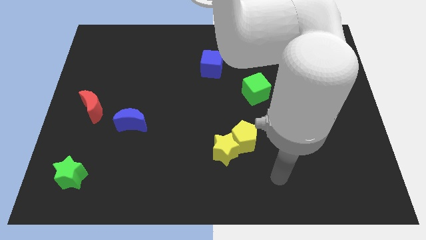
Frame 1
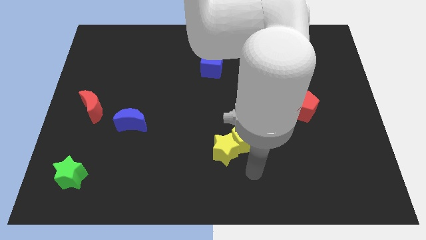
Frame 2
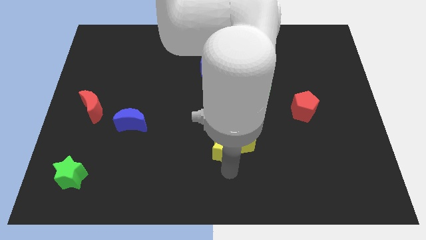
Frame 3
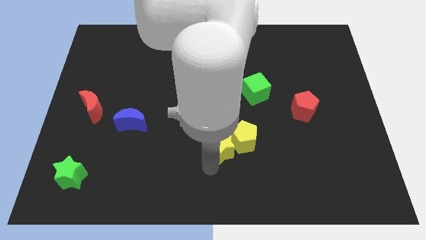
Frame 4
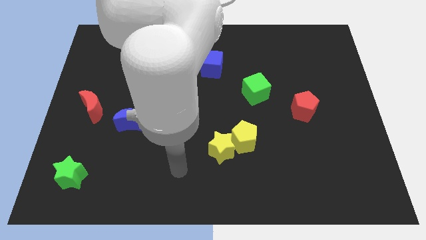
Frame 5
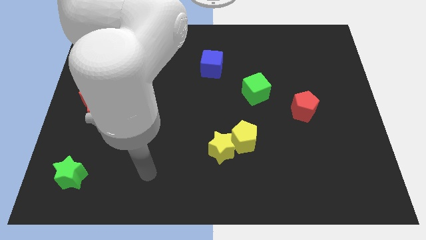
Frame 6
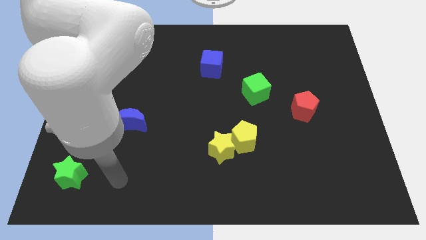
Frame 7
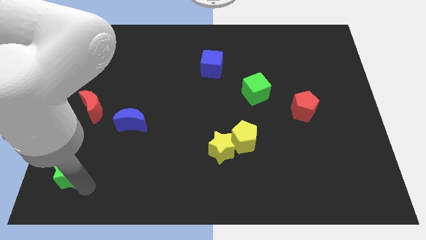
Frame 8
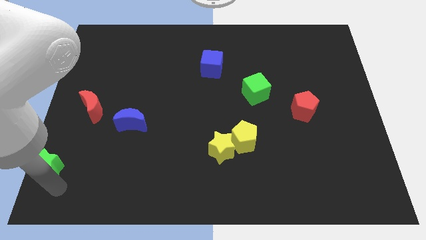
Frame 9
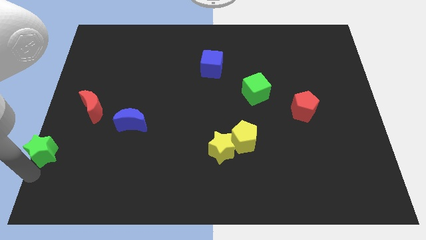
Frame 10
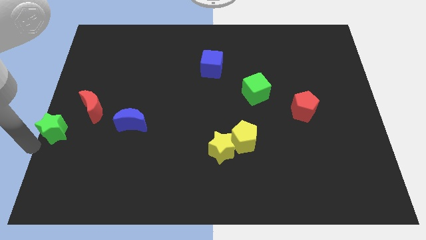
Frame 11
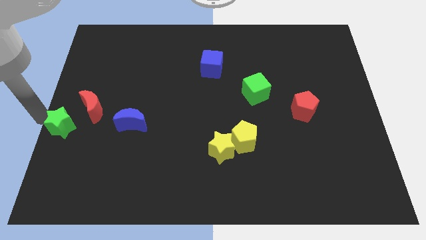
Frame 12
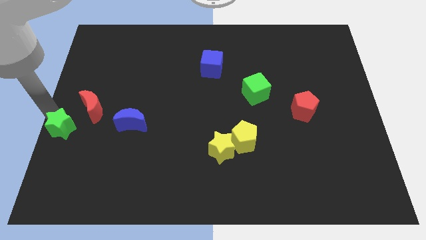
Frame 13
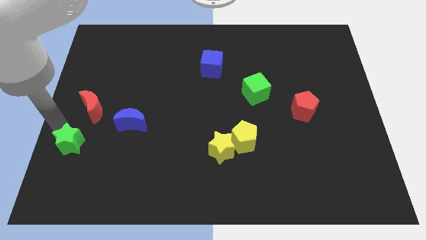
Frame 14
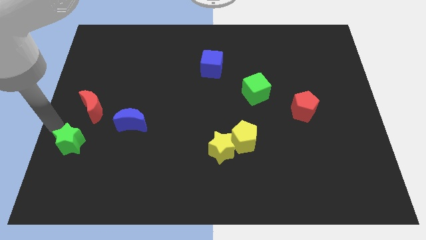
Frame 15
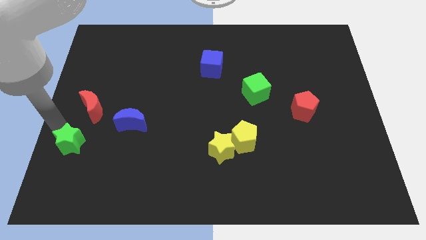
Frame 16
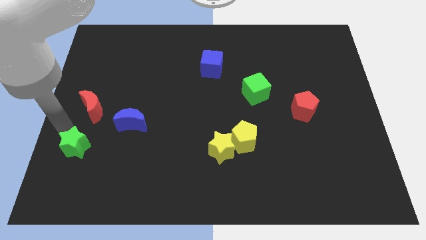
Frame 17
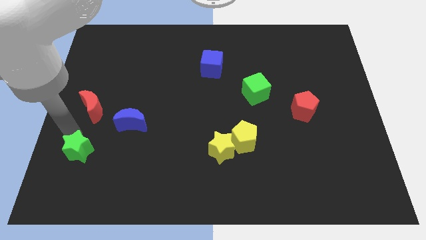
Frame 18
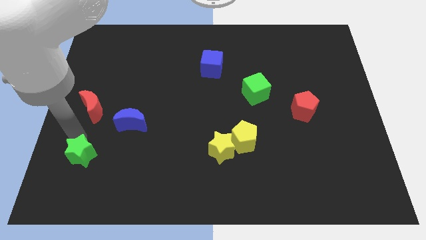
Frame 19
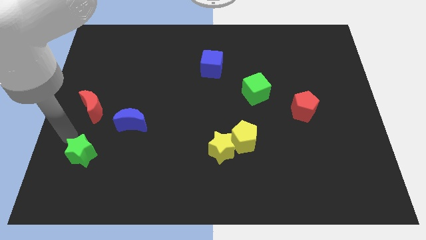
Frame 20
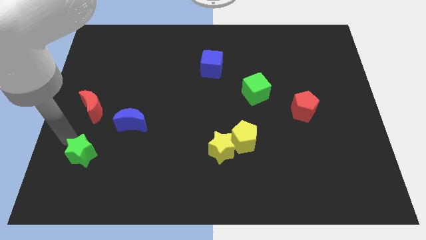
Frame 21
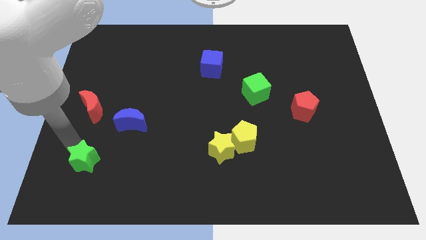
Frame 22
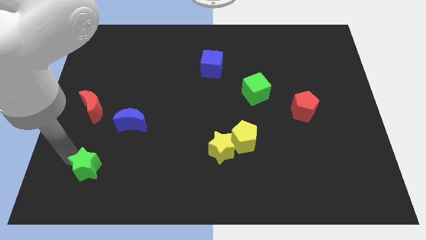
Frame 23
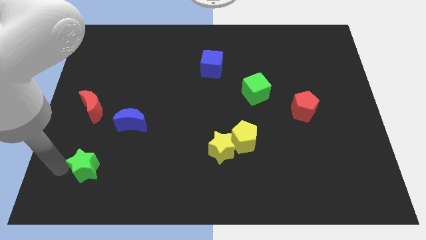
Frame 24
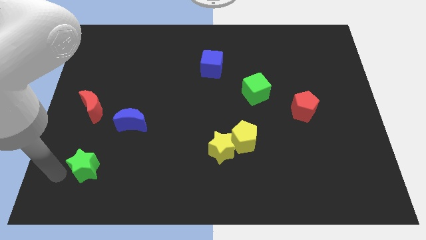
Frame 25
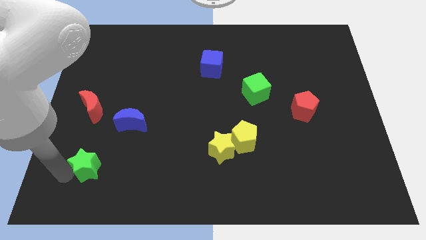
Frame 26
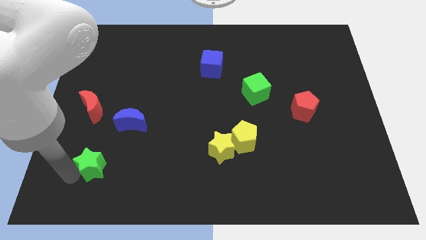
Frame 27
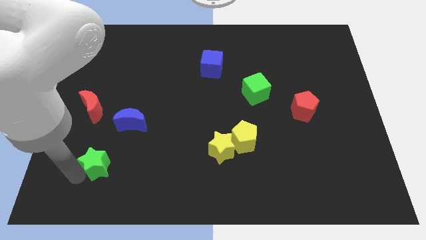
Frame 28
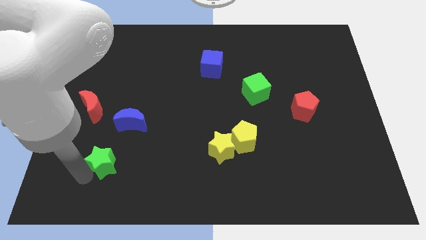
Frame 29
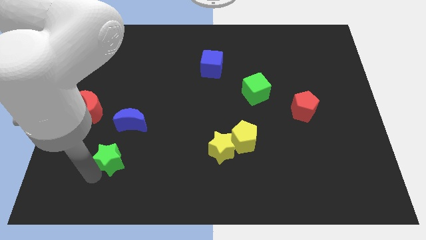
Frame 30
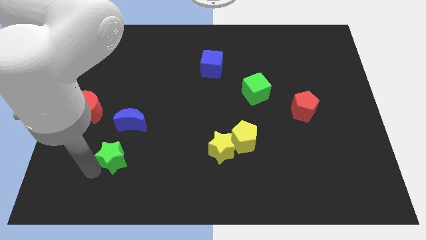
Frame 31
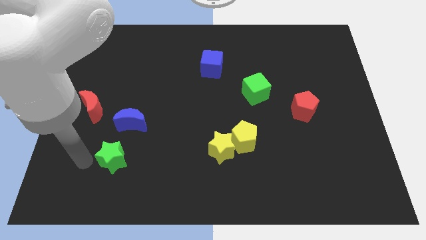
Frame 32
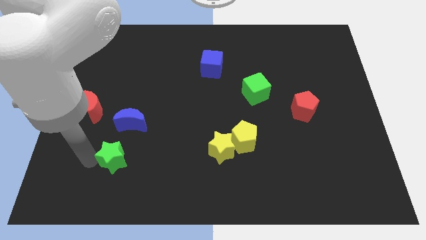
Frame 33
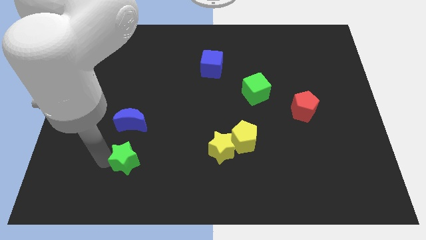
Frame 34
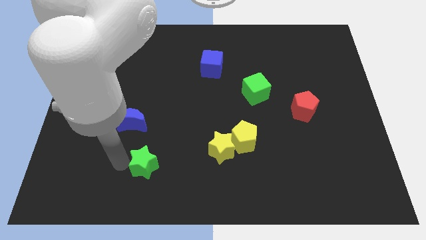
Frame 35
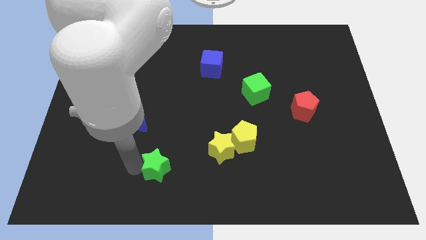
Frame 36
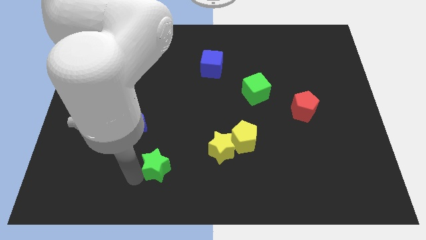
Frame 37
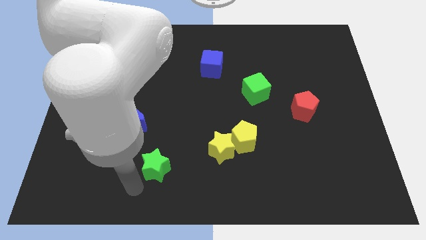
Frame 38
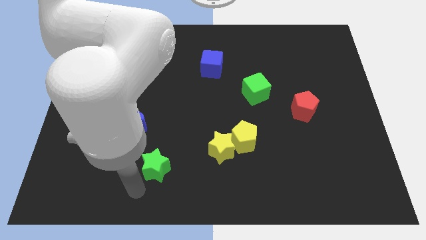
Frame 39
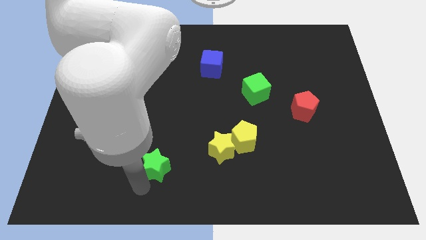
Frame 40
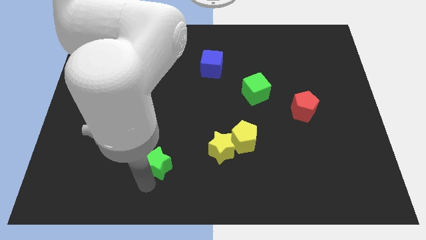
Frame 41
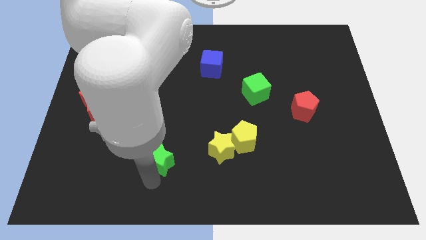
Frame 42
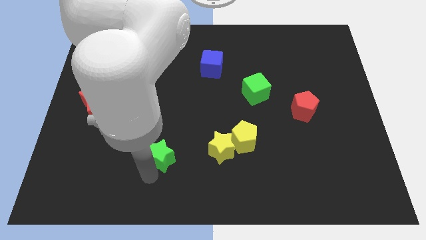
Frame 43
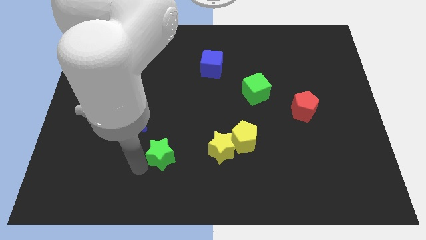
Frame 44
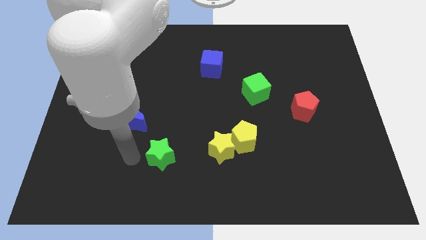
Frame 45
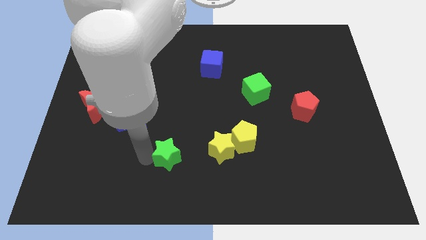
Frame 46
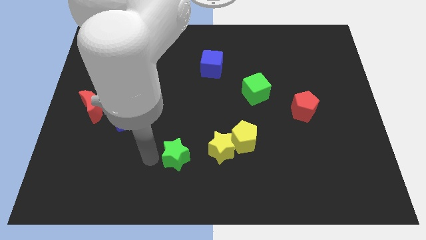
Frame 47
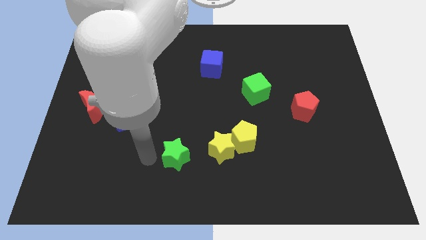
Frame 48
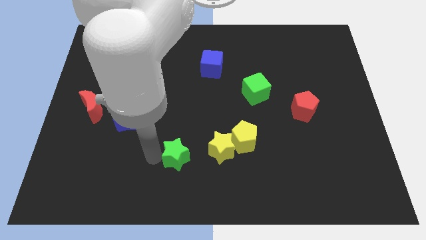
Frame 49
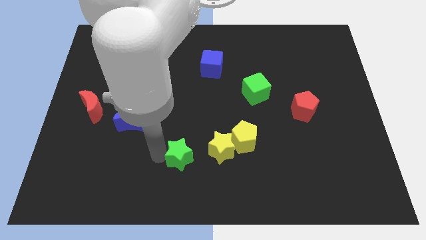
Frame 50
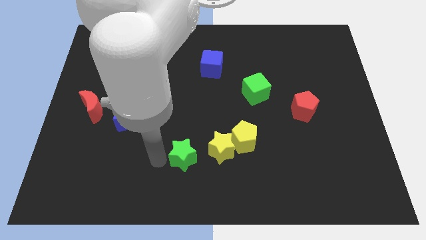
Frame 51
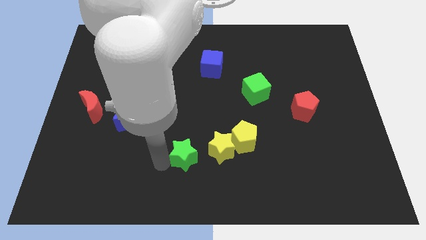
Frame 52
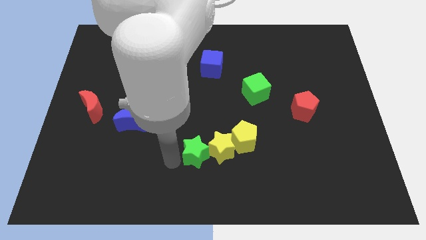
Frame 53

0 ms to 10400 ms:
move the green star close to the yellow star

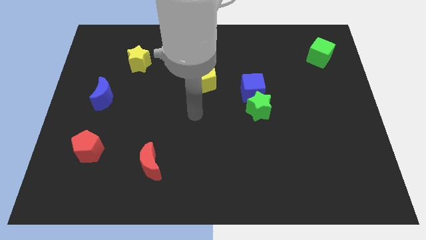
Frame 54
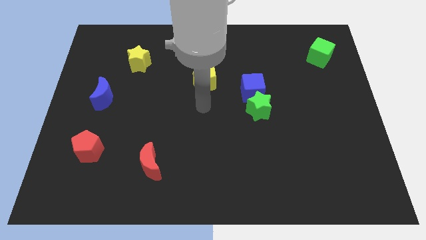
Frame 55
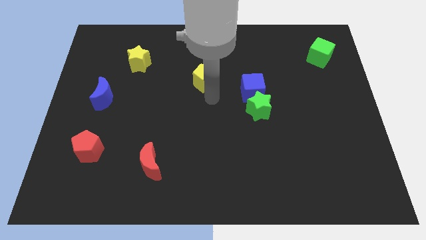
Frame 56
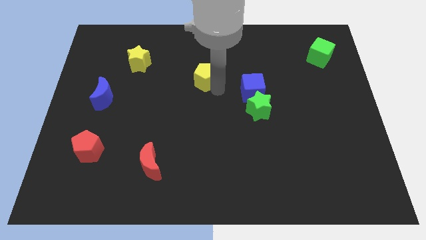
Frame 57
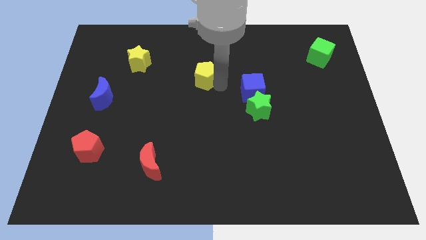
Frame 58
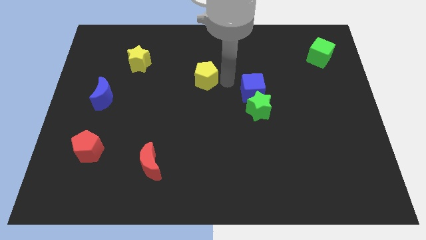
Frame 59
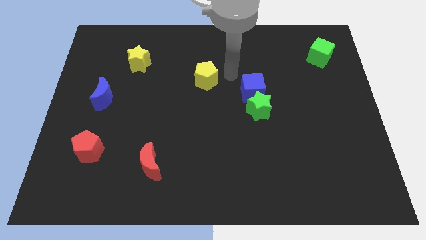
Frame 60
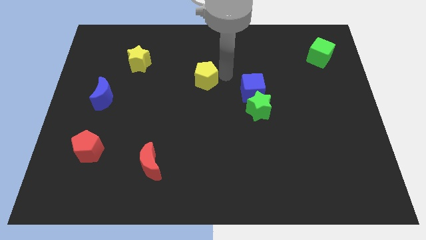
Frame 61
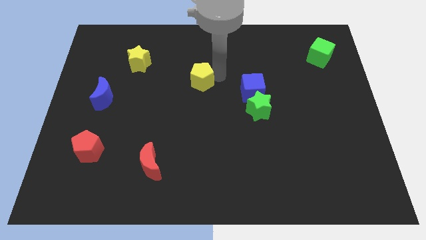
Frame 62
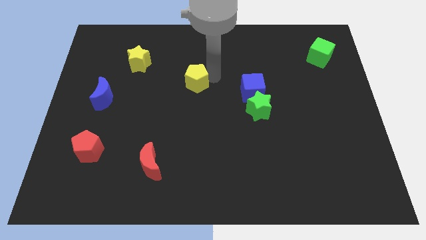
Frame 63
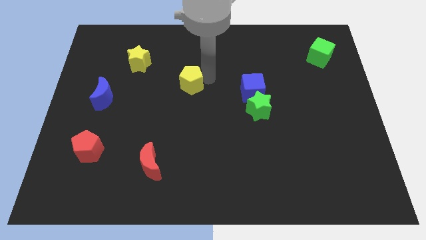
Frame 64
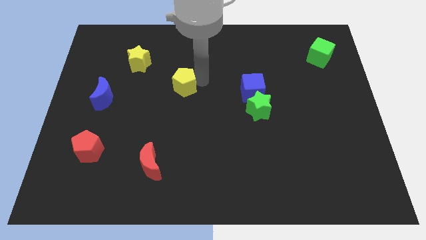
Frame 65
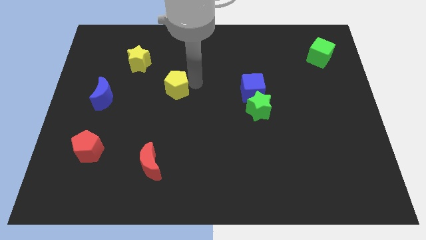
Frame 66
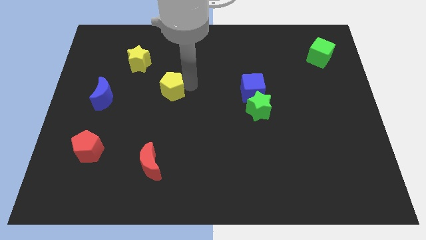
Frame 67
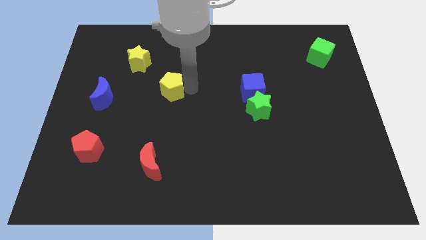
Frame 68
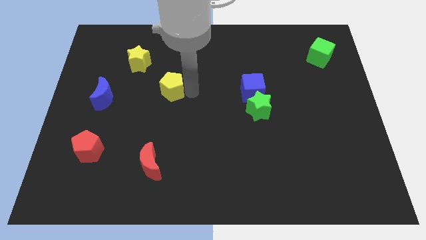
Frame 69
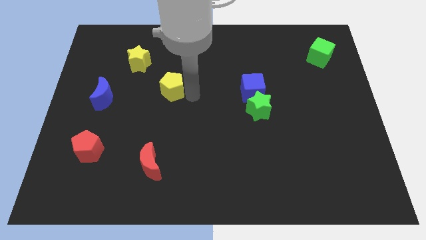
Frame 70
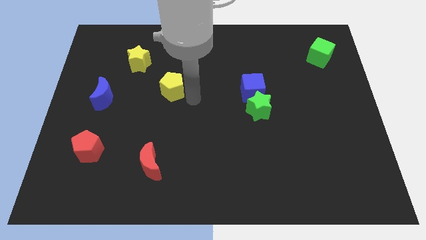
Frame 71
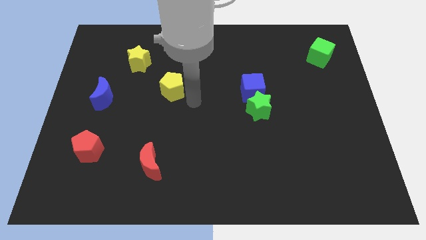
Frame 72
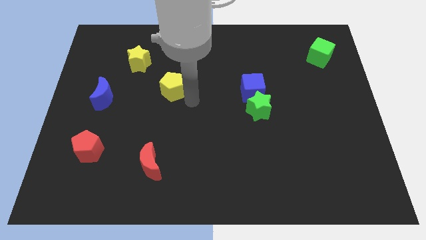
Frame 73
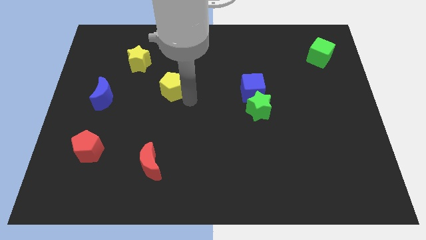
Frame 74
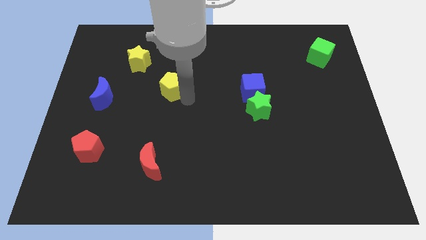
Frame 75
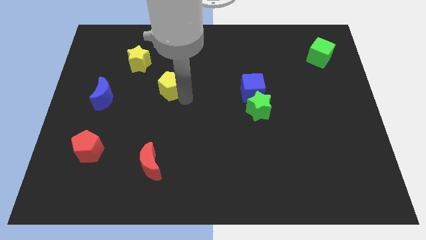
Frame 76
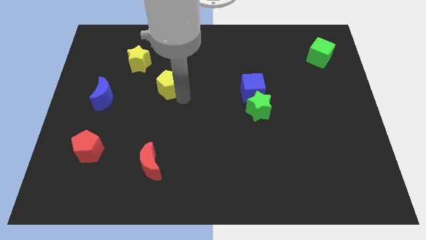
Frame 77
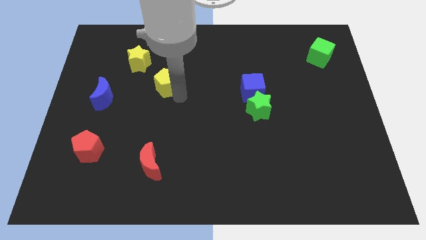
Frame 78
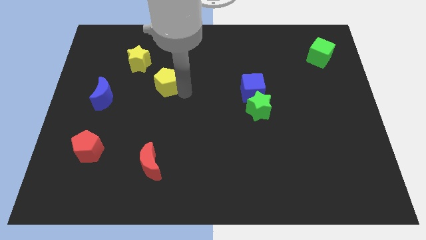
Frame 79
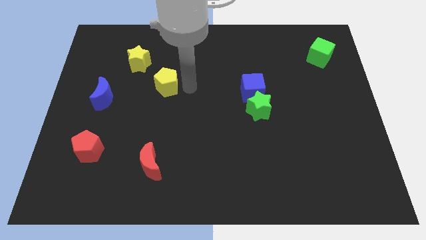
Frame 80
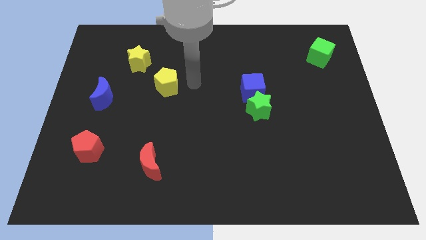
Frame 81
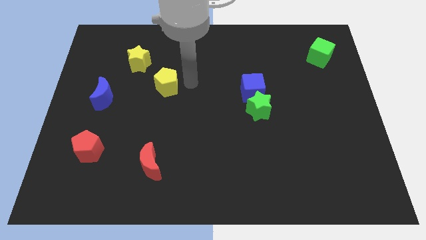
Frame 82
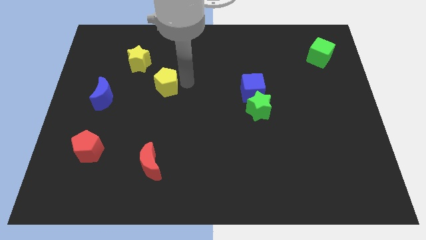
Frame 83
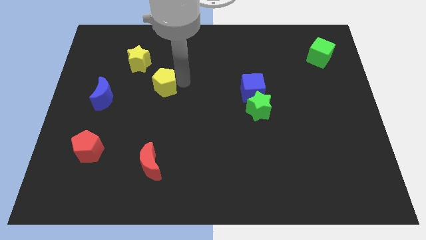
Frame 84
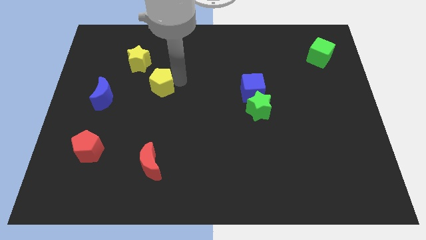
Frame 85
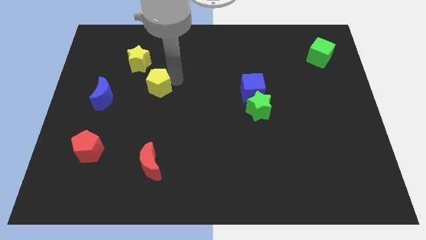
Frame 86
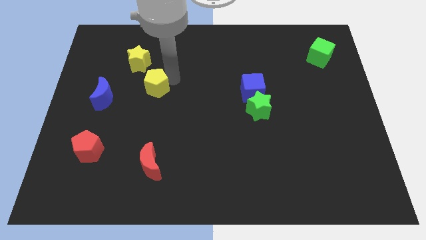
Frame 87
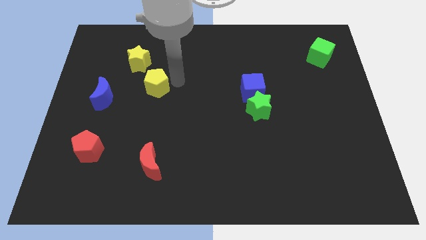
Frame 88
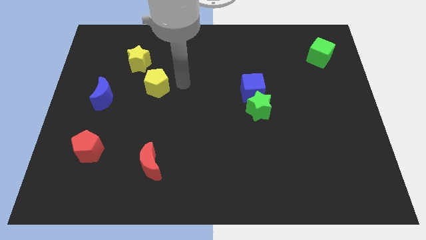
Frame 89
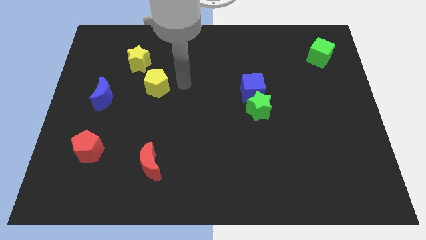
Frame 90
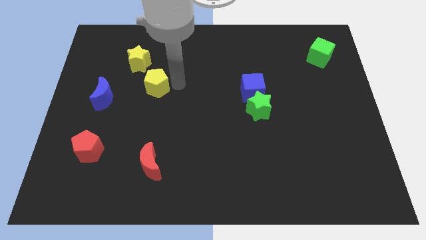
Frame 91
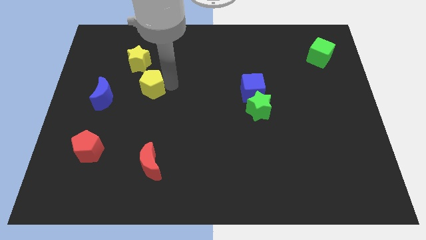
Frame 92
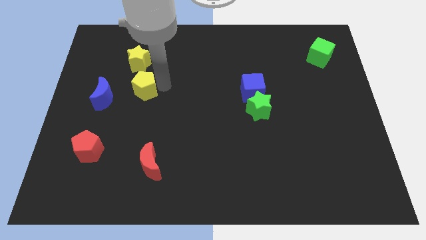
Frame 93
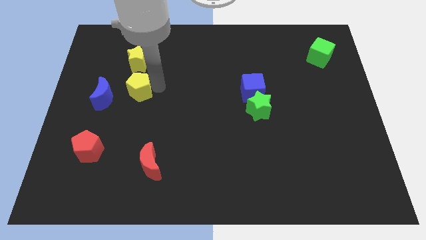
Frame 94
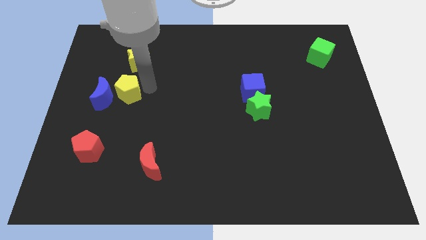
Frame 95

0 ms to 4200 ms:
push the yellow pentagon close to the blue moon
